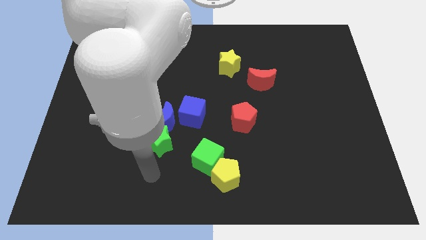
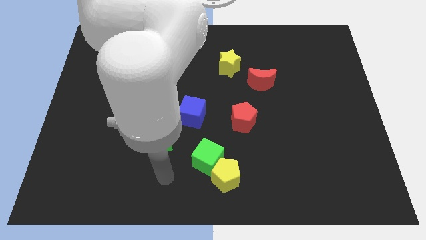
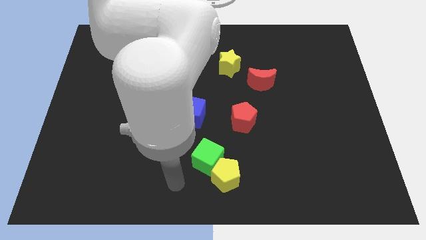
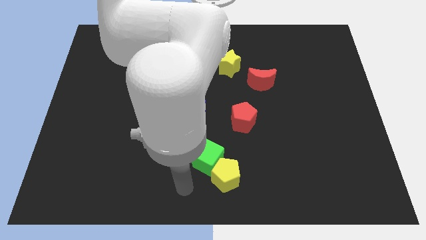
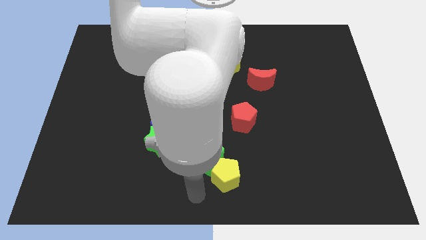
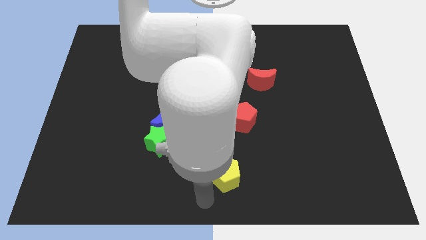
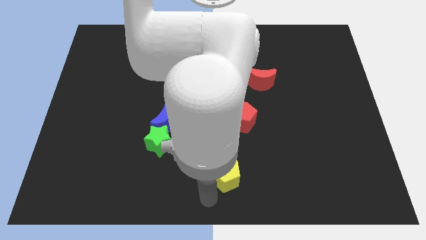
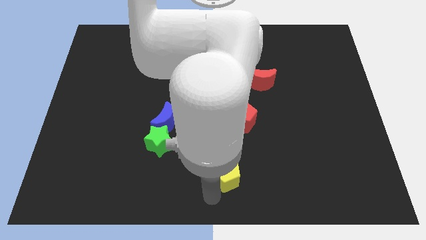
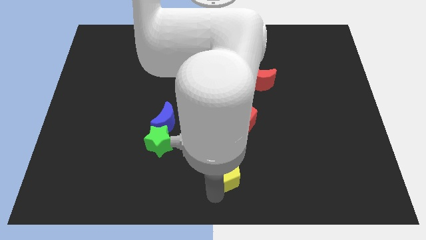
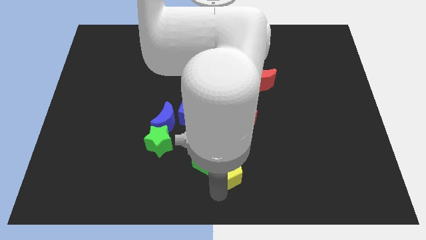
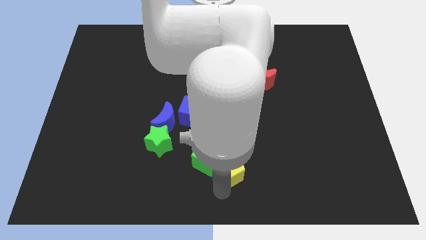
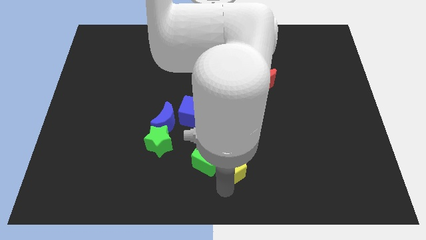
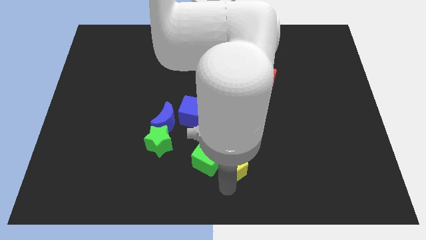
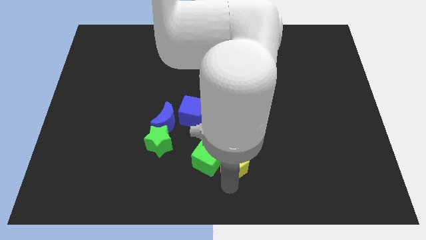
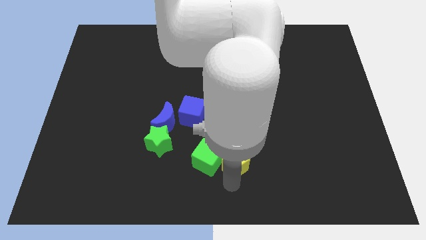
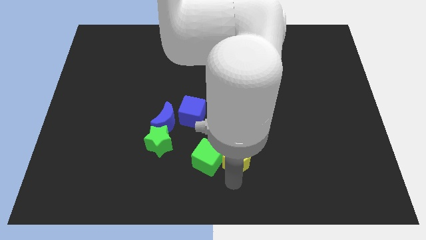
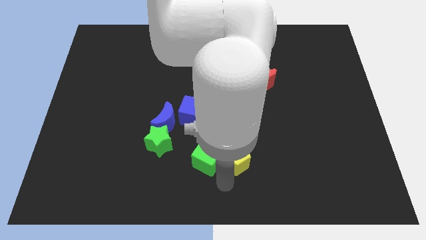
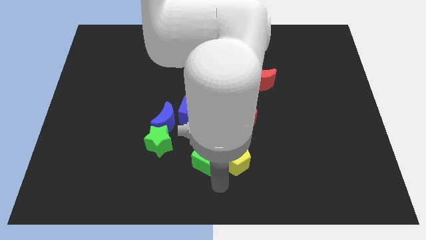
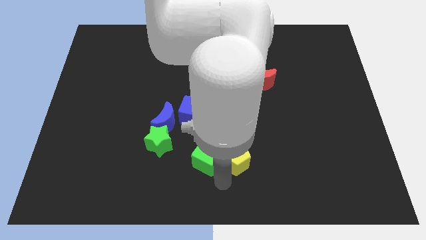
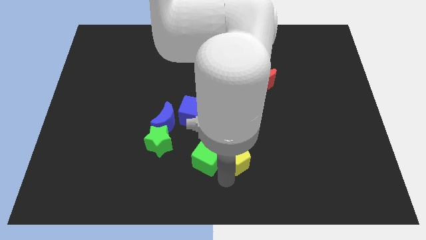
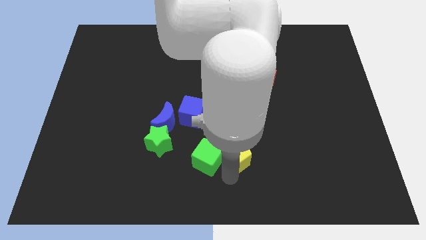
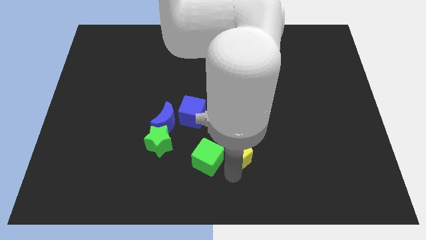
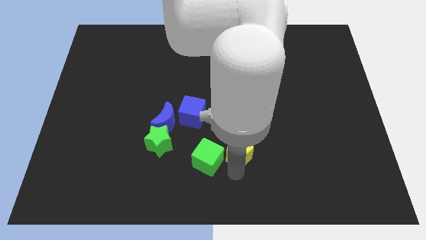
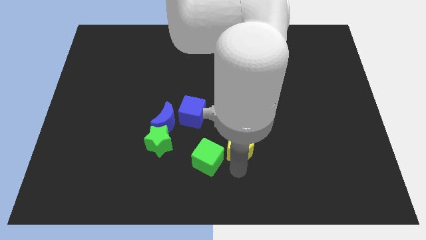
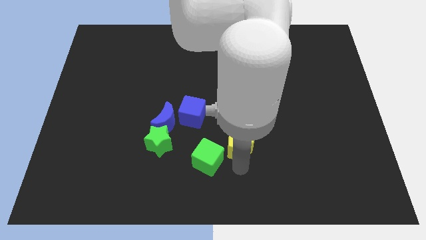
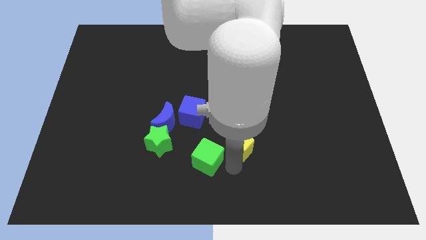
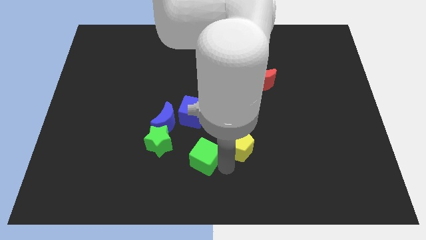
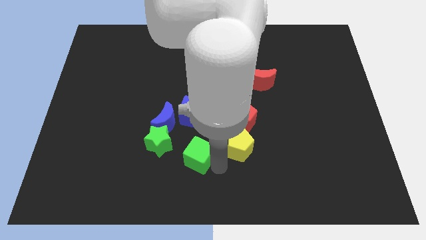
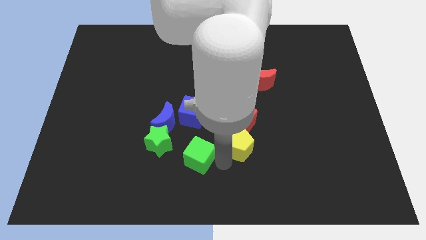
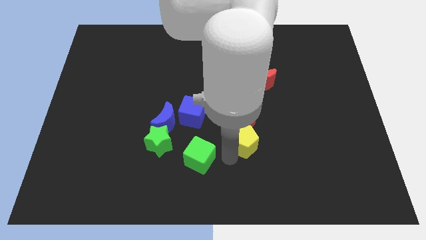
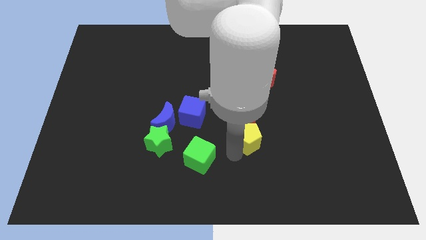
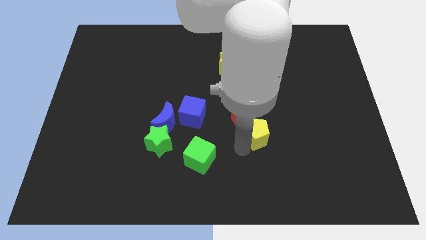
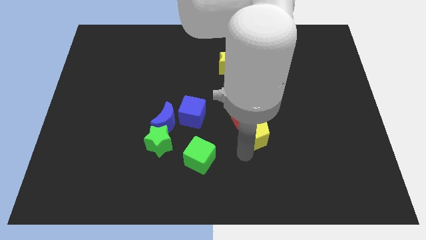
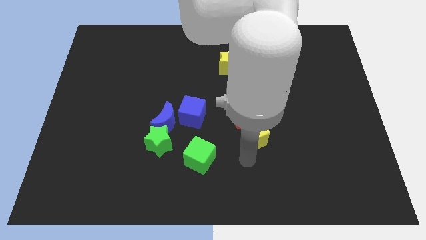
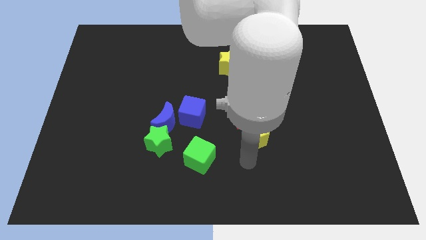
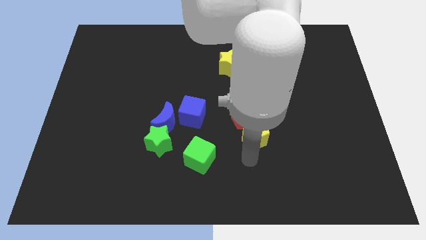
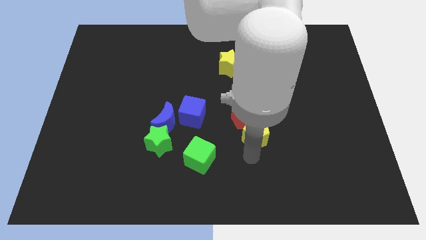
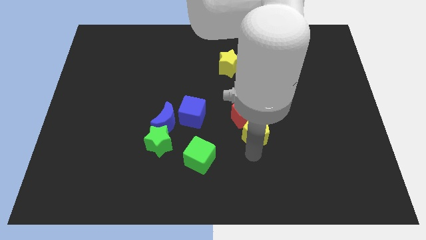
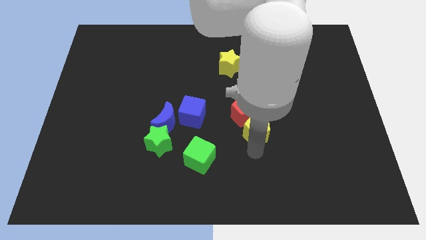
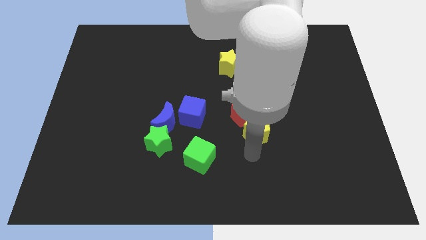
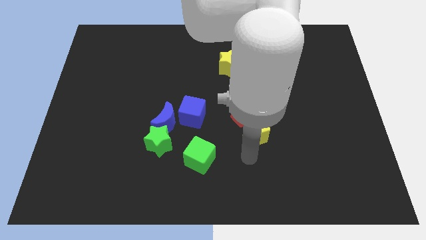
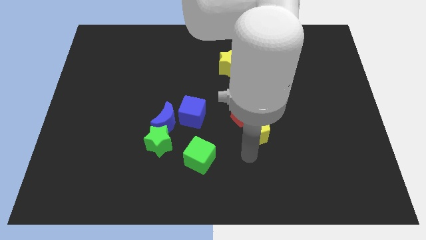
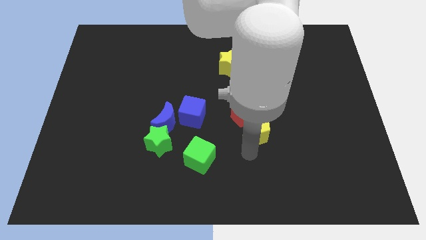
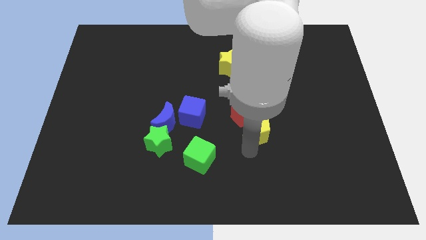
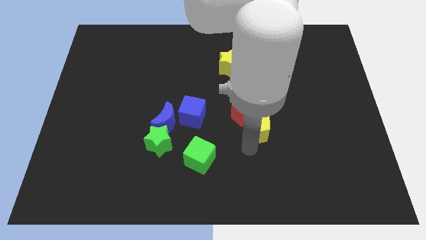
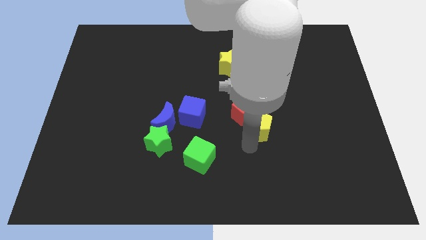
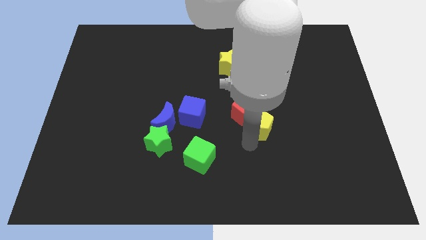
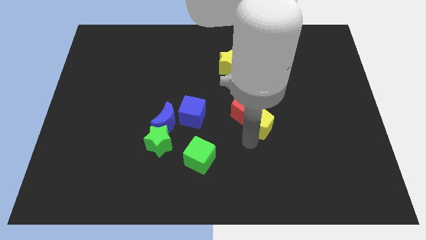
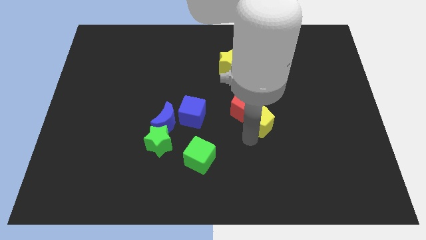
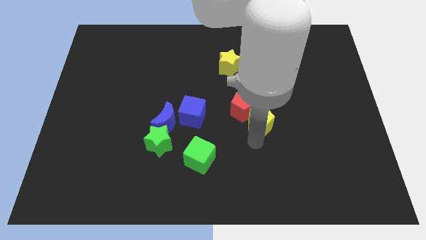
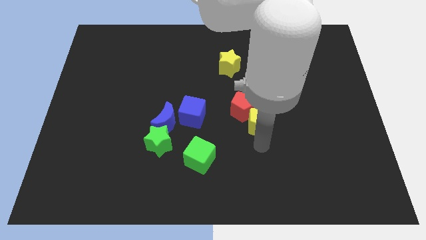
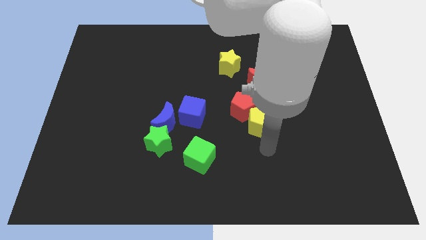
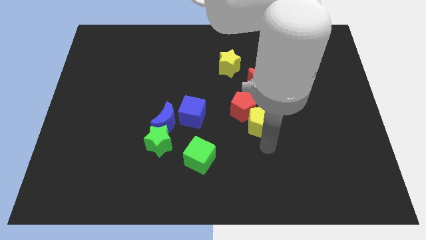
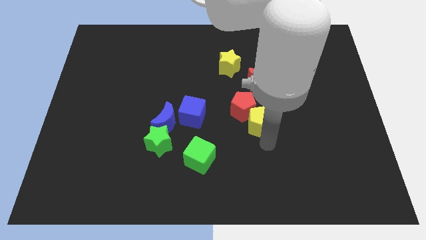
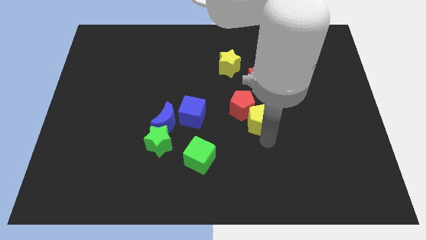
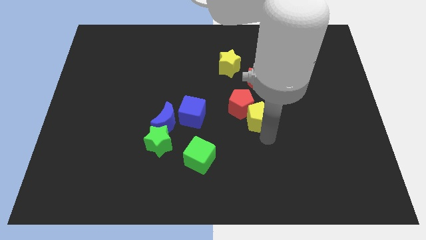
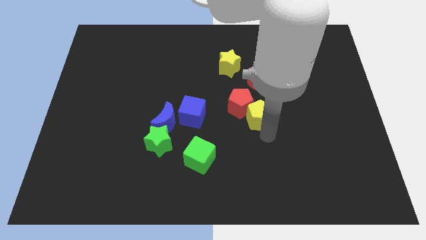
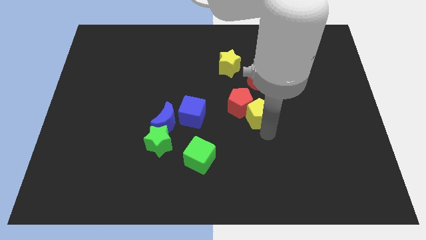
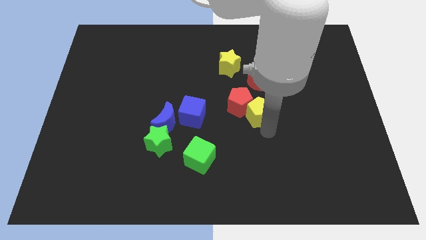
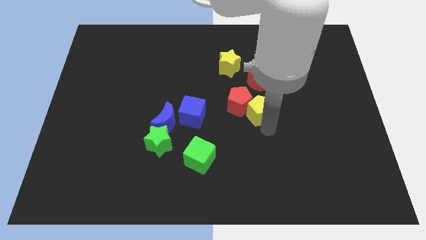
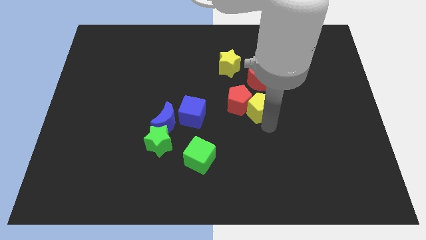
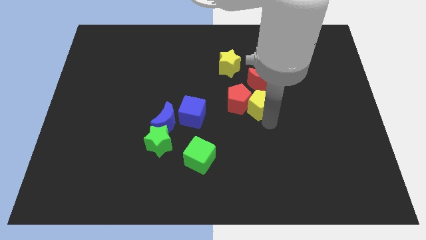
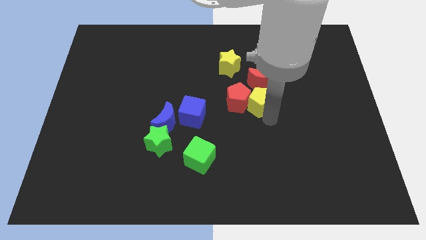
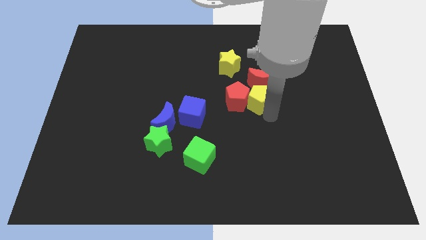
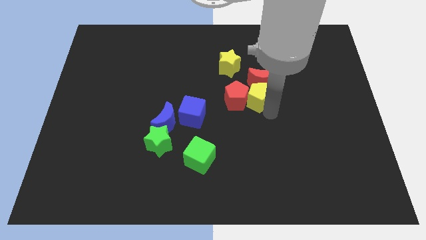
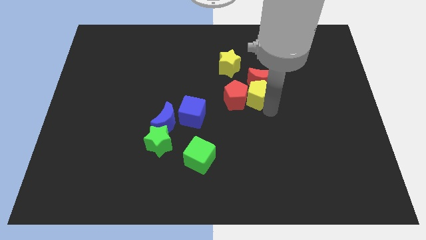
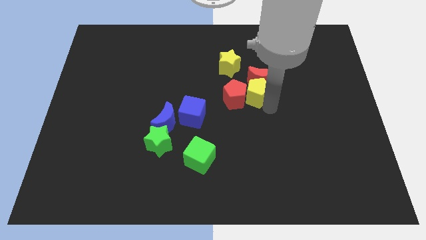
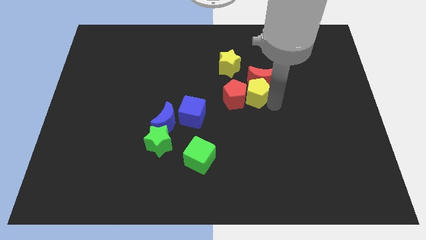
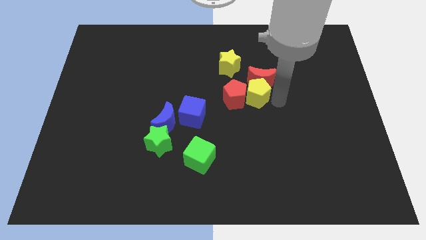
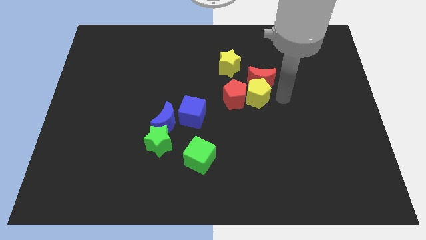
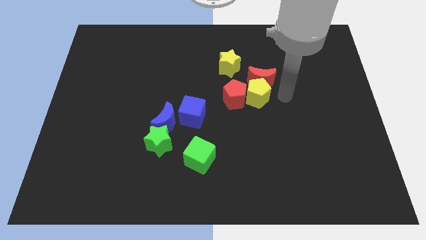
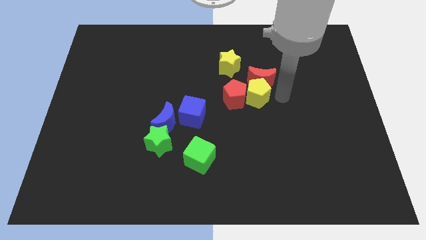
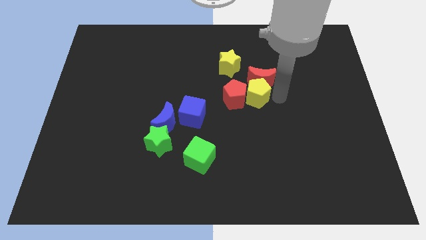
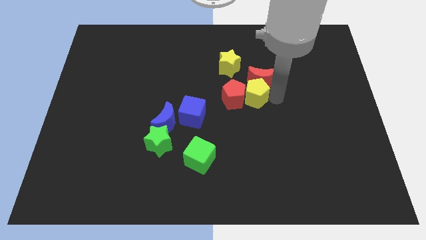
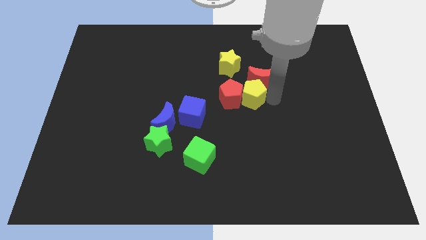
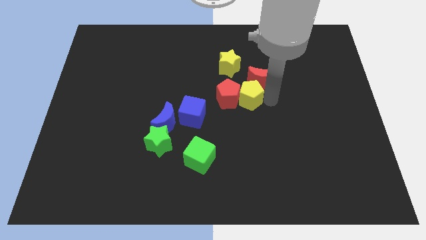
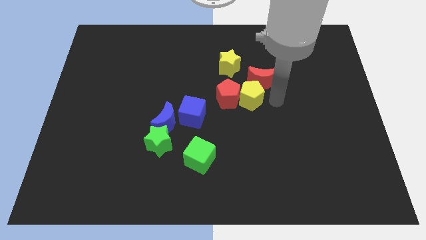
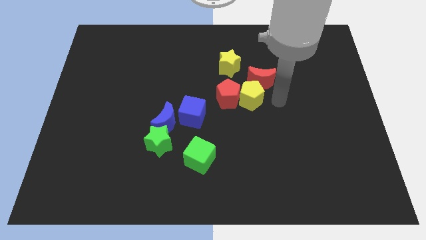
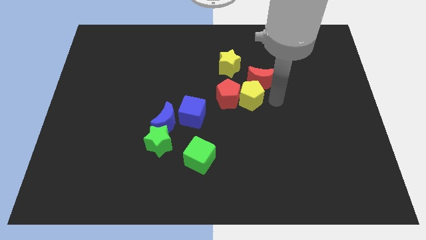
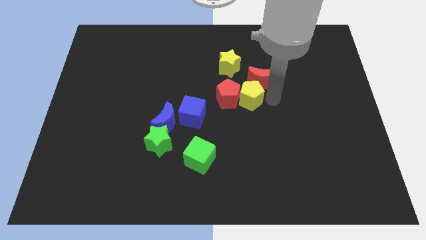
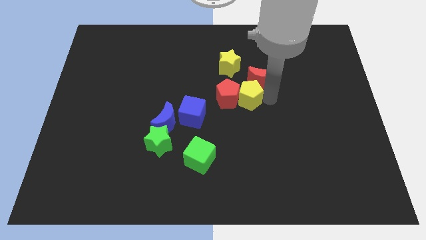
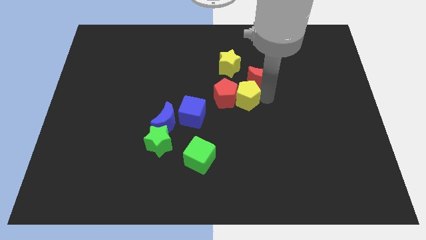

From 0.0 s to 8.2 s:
slide the yellow pentagon to the bottom of the yellow star
